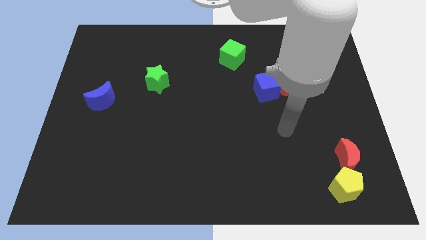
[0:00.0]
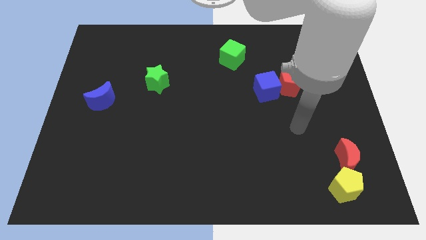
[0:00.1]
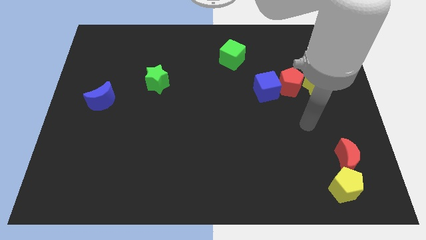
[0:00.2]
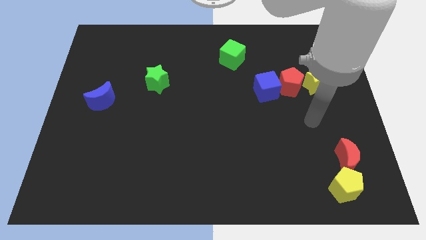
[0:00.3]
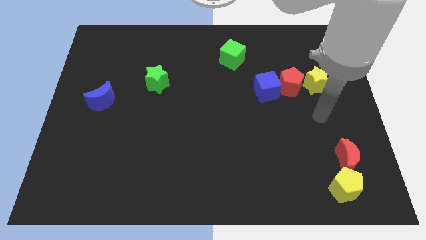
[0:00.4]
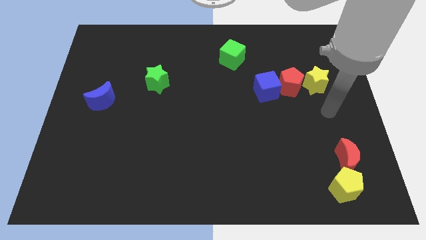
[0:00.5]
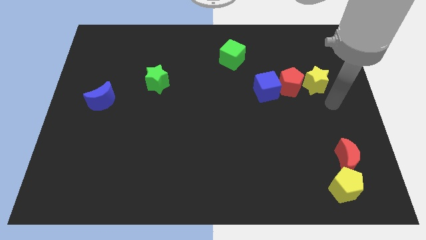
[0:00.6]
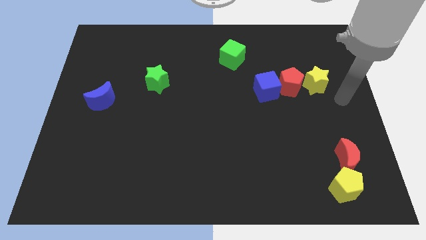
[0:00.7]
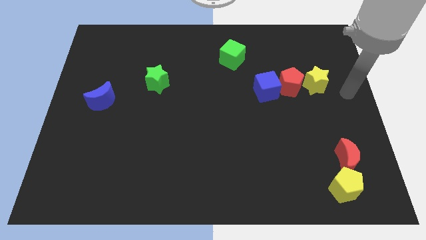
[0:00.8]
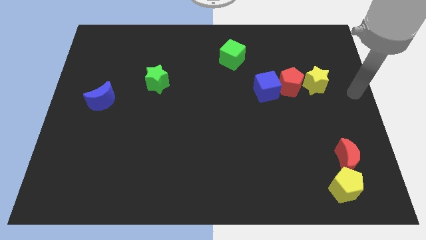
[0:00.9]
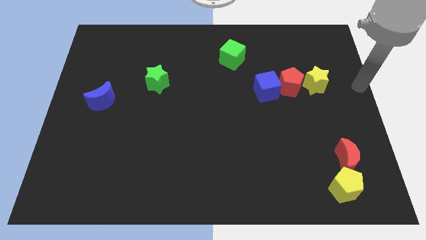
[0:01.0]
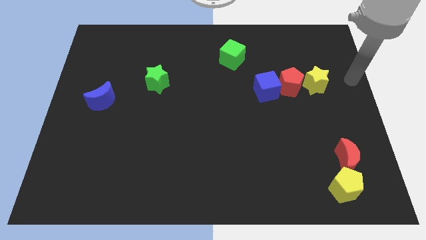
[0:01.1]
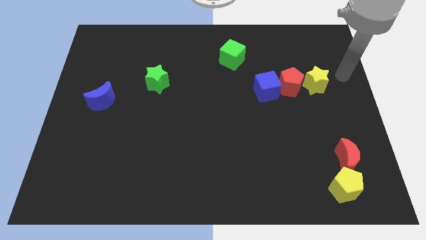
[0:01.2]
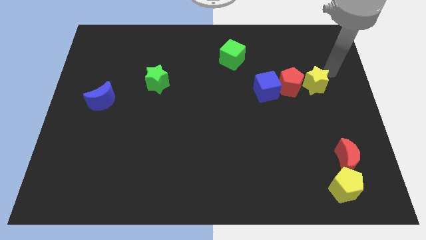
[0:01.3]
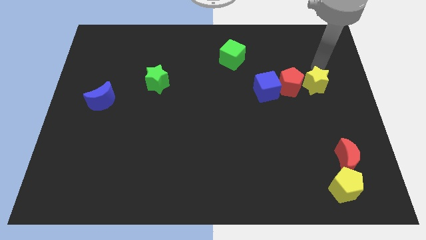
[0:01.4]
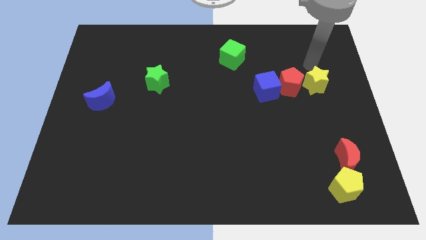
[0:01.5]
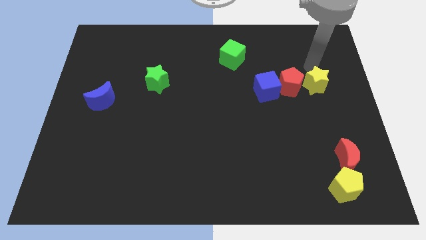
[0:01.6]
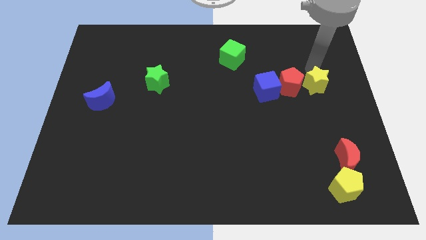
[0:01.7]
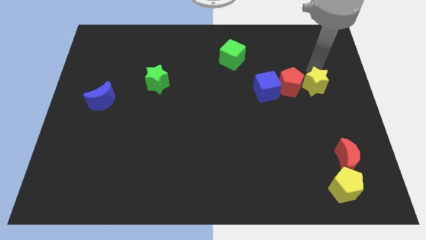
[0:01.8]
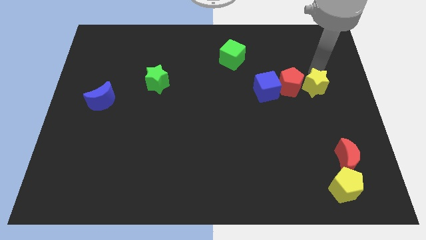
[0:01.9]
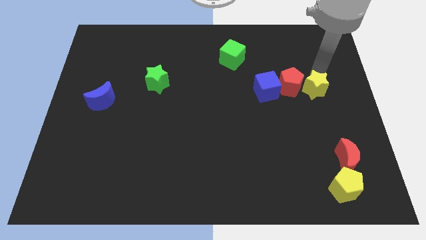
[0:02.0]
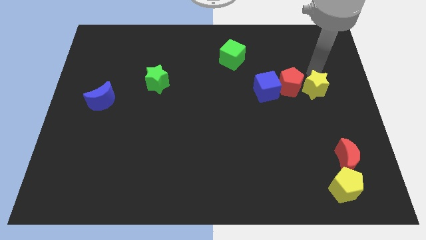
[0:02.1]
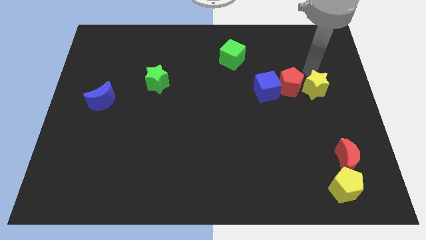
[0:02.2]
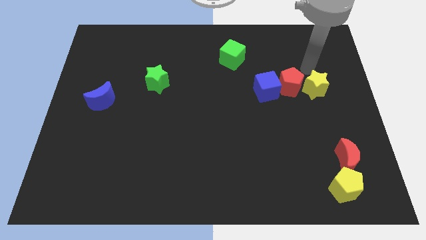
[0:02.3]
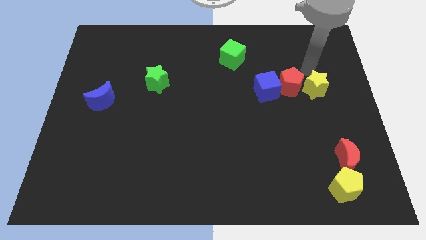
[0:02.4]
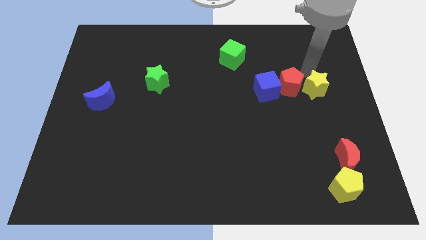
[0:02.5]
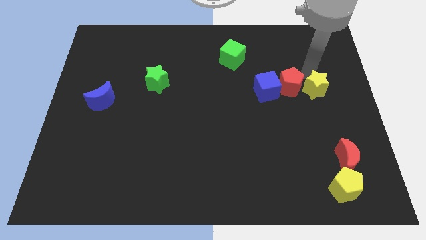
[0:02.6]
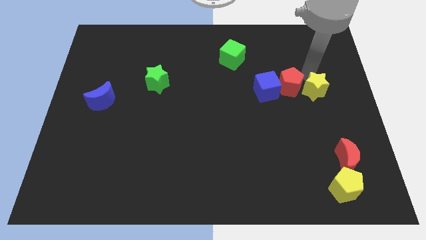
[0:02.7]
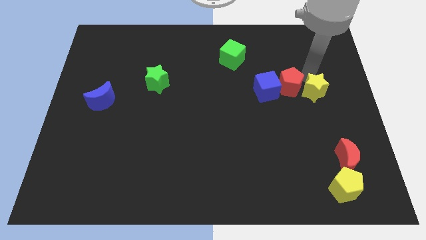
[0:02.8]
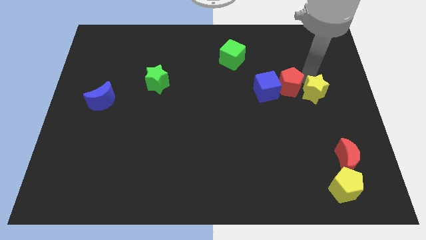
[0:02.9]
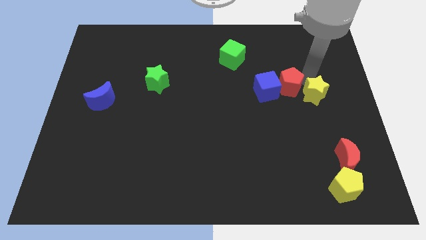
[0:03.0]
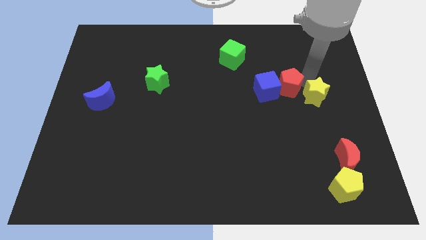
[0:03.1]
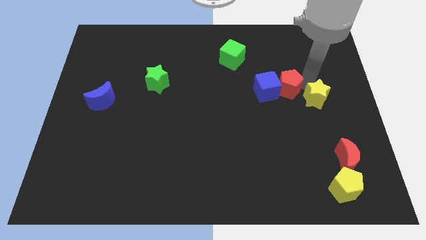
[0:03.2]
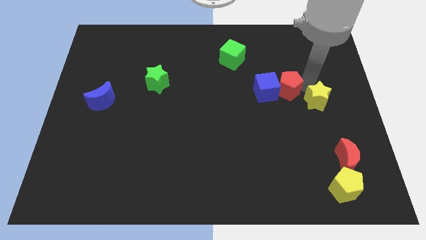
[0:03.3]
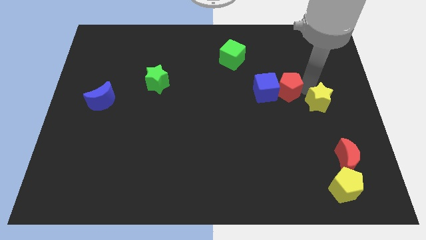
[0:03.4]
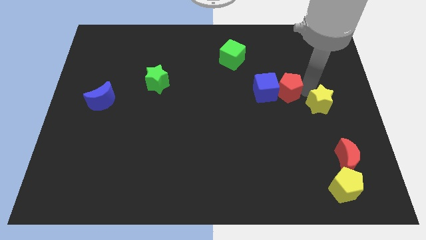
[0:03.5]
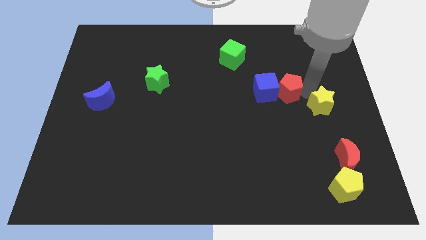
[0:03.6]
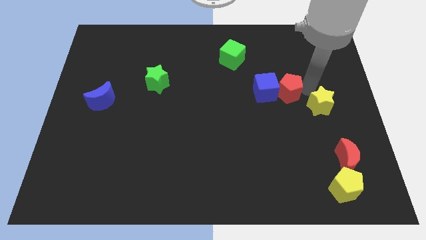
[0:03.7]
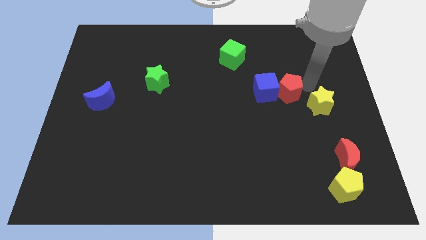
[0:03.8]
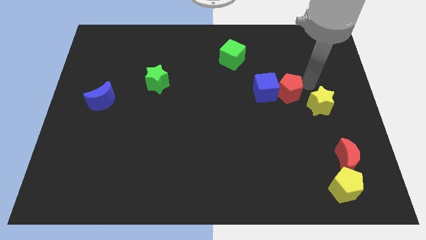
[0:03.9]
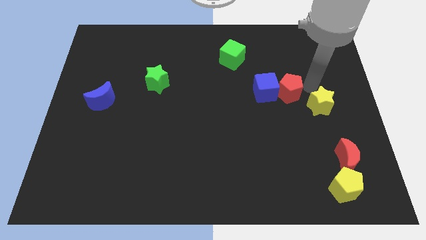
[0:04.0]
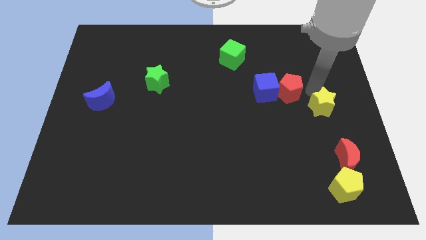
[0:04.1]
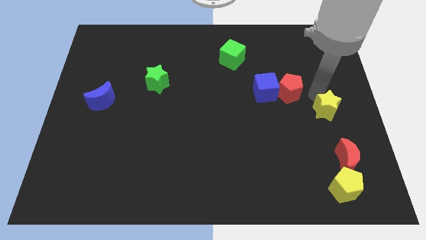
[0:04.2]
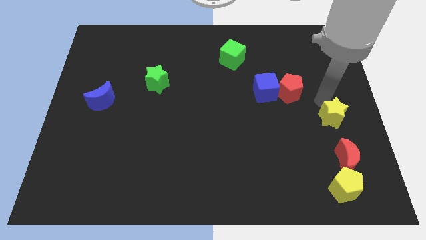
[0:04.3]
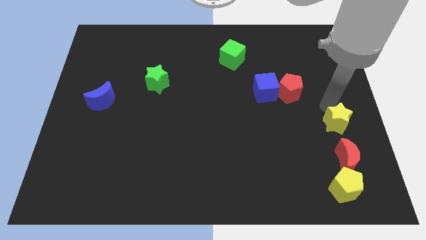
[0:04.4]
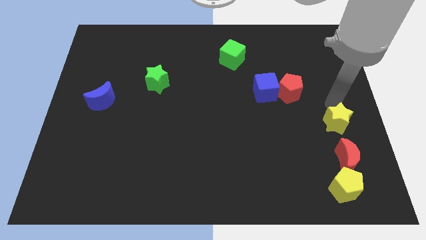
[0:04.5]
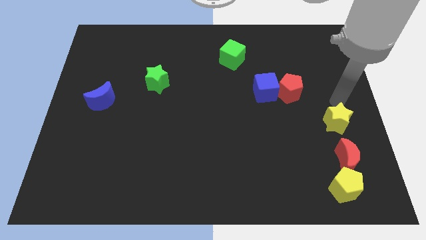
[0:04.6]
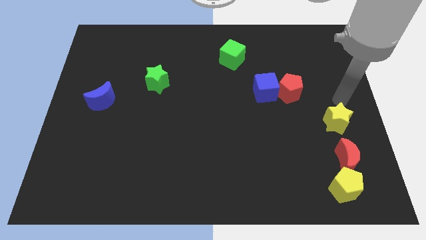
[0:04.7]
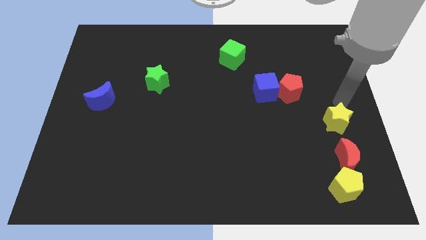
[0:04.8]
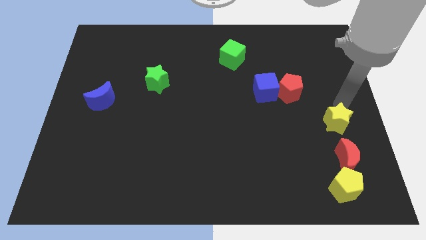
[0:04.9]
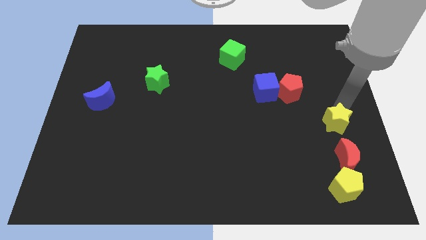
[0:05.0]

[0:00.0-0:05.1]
move the yellow star to the top side of the yellow pentagon

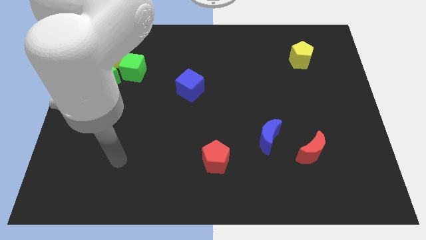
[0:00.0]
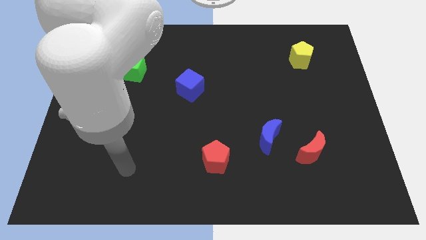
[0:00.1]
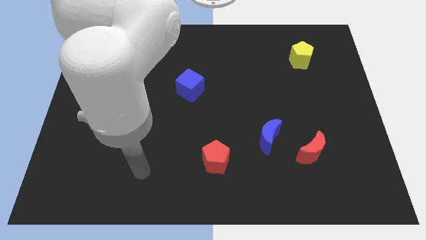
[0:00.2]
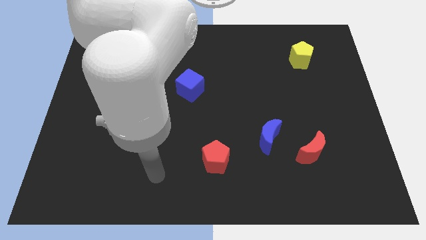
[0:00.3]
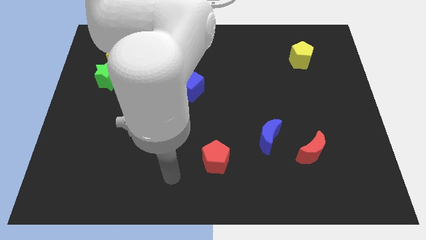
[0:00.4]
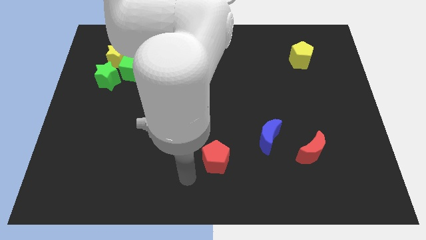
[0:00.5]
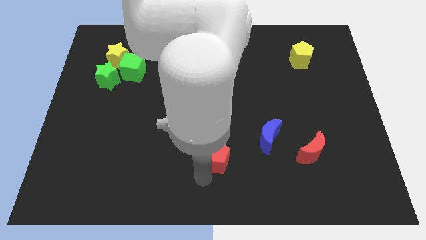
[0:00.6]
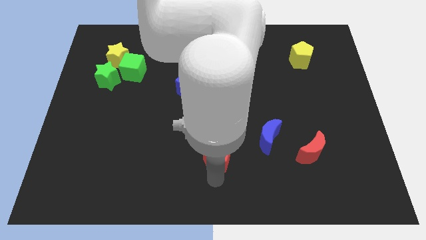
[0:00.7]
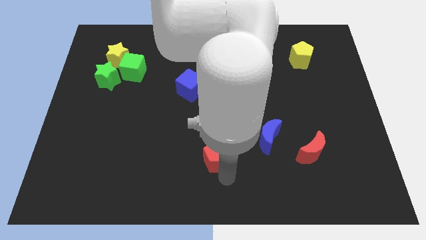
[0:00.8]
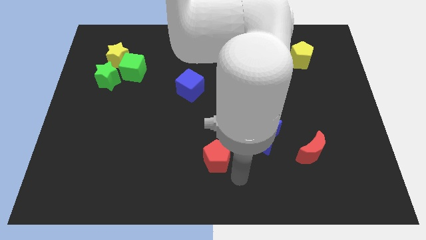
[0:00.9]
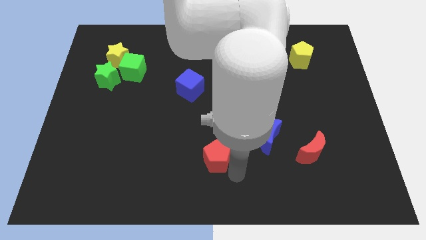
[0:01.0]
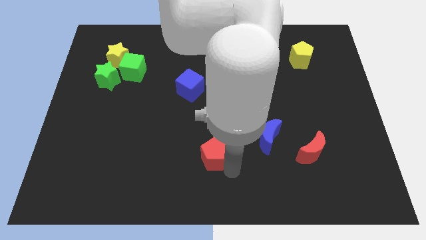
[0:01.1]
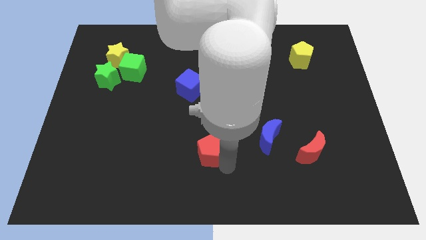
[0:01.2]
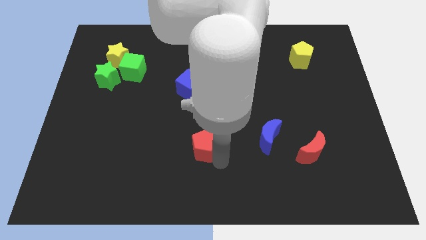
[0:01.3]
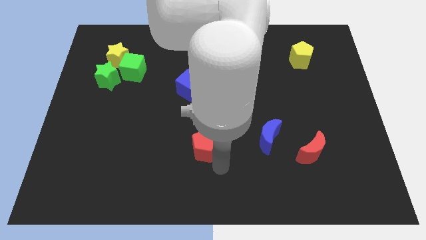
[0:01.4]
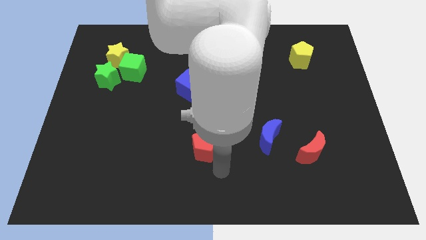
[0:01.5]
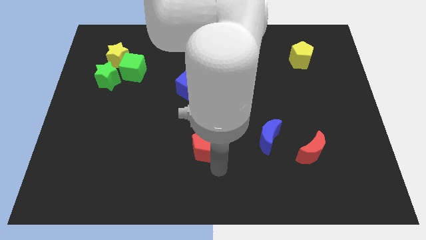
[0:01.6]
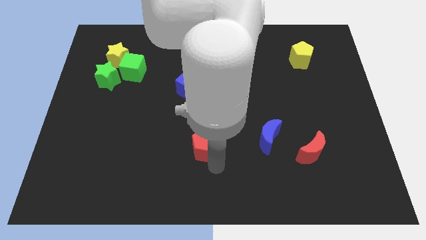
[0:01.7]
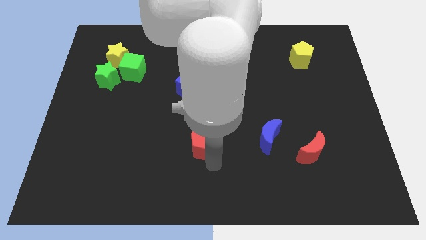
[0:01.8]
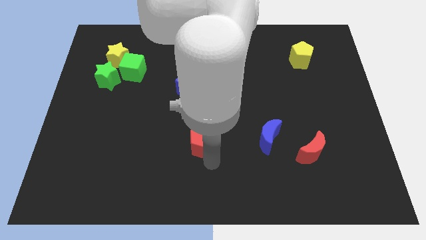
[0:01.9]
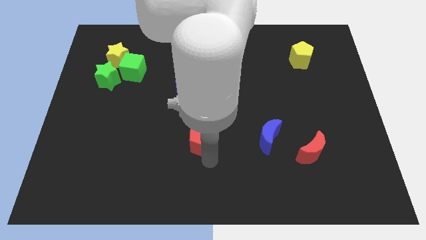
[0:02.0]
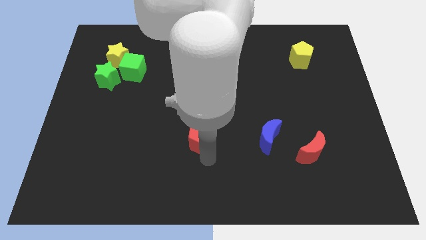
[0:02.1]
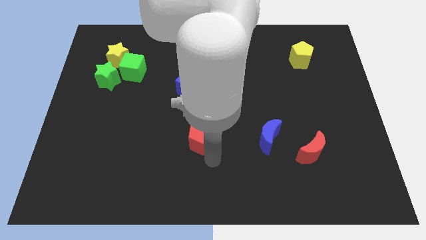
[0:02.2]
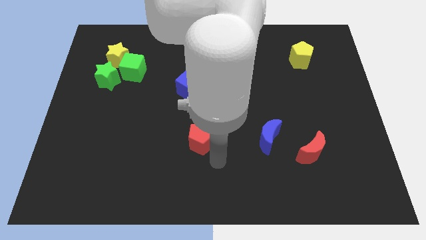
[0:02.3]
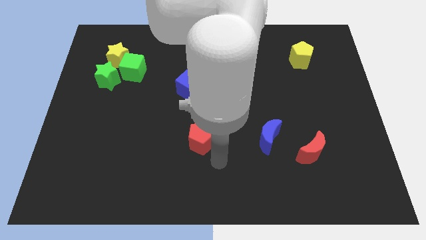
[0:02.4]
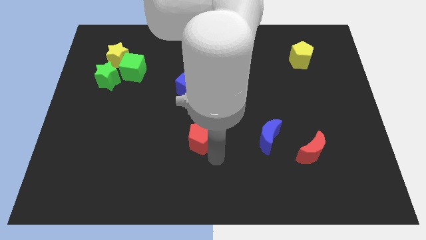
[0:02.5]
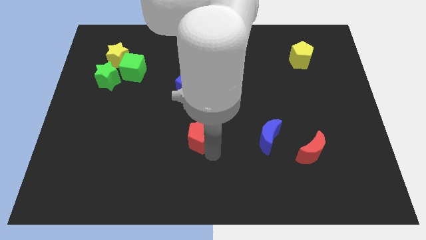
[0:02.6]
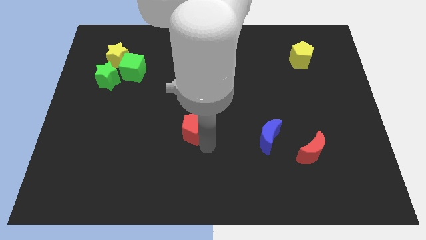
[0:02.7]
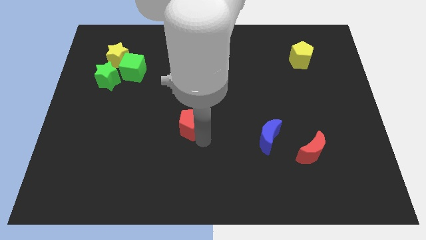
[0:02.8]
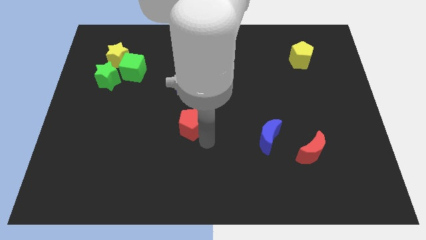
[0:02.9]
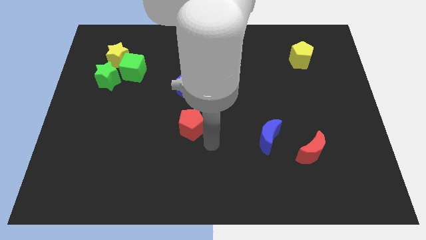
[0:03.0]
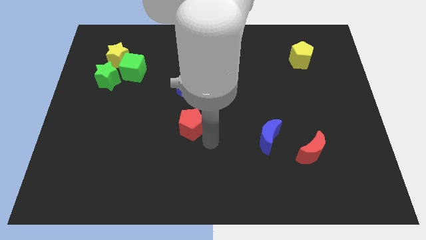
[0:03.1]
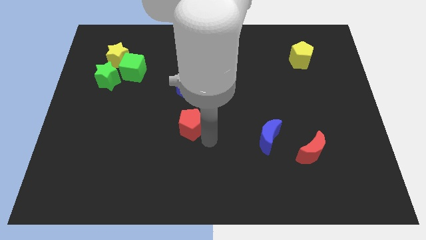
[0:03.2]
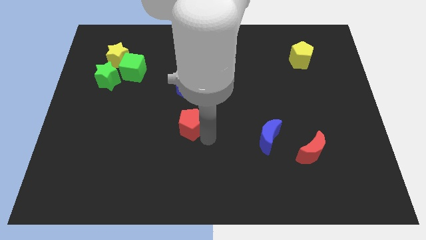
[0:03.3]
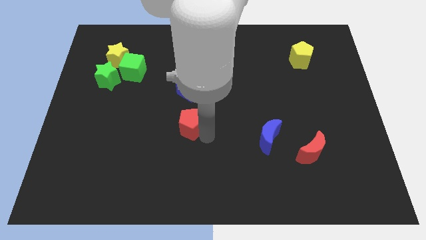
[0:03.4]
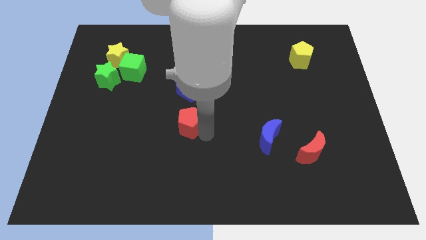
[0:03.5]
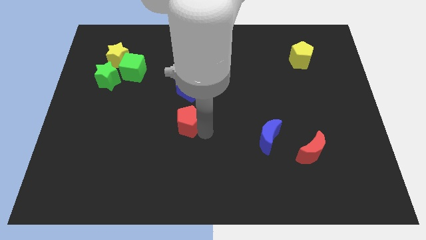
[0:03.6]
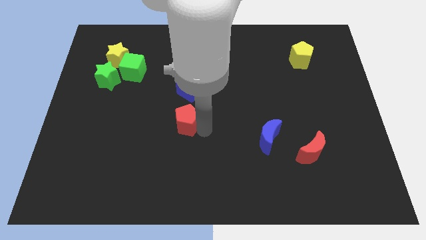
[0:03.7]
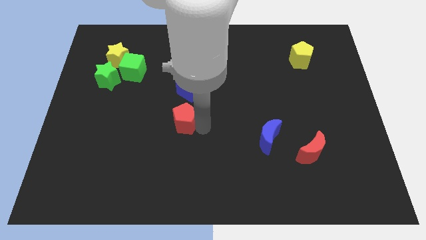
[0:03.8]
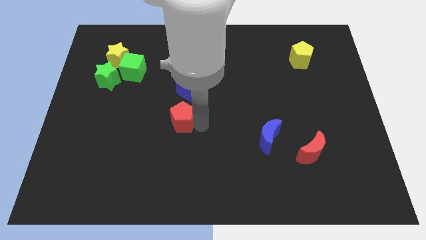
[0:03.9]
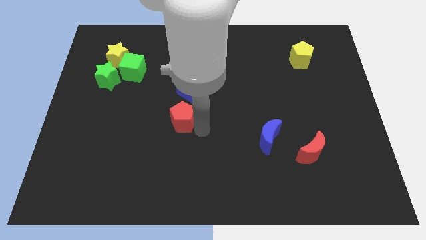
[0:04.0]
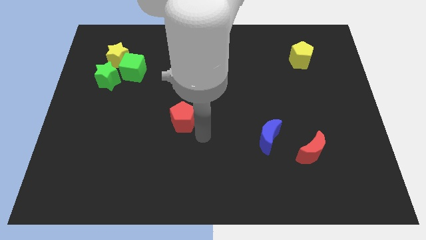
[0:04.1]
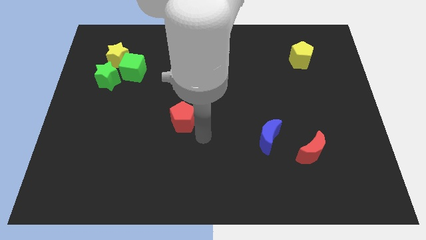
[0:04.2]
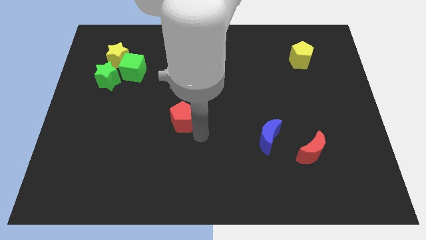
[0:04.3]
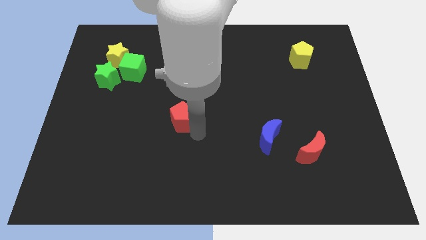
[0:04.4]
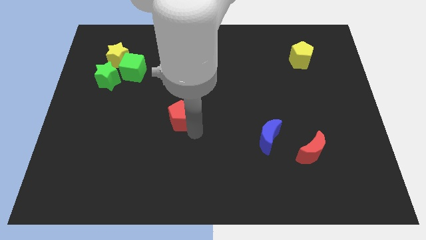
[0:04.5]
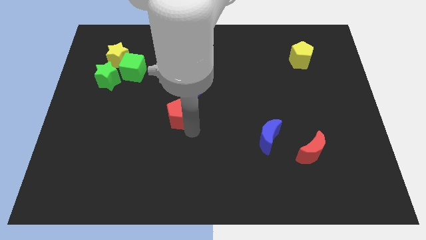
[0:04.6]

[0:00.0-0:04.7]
slide the red pentagon diagonally down and to the left of the blue cube
